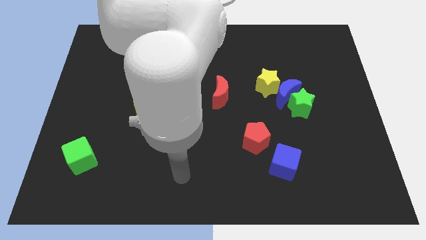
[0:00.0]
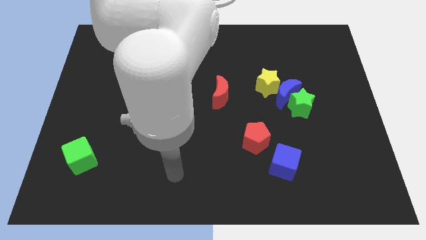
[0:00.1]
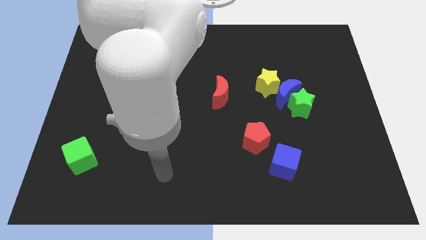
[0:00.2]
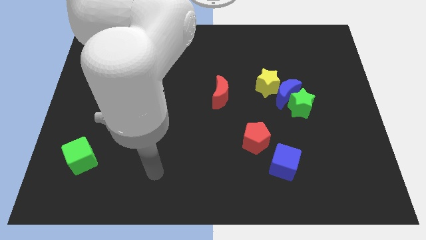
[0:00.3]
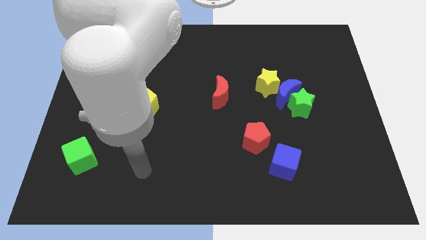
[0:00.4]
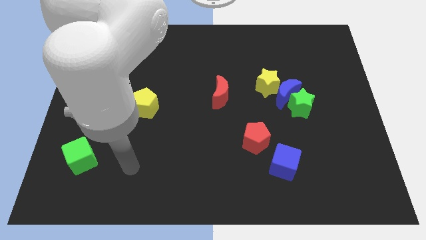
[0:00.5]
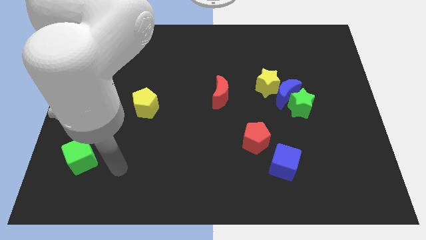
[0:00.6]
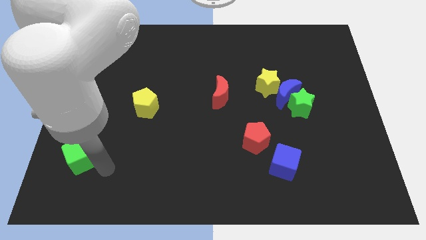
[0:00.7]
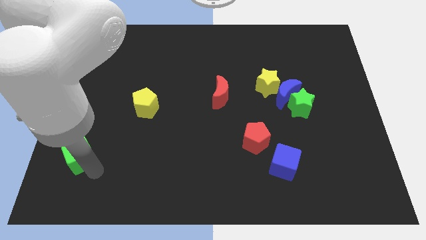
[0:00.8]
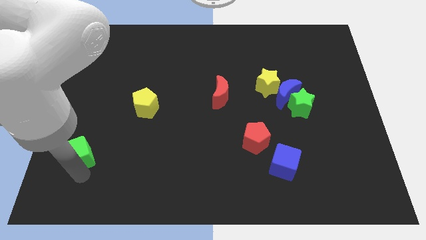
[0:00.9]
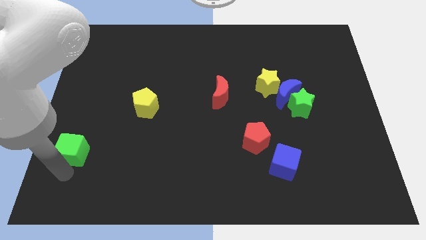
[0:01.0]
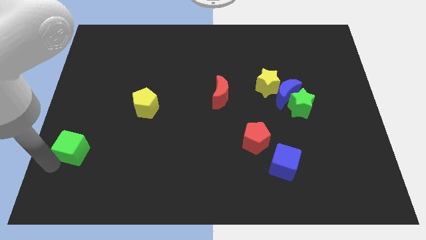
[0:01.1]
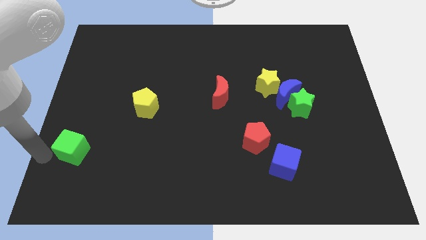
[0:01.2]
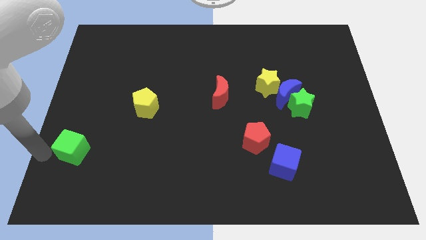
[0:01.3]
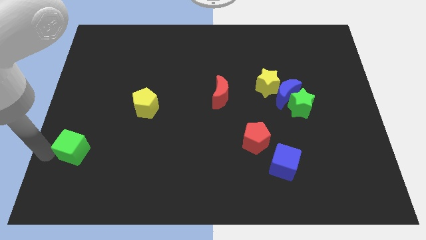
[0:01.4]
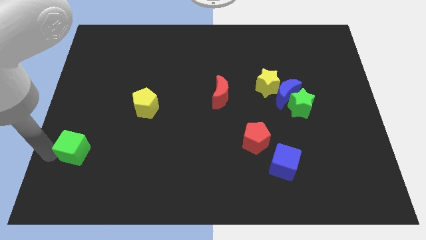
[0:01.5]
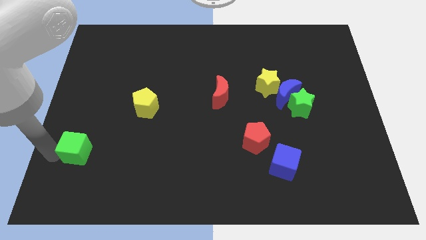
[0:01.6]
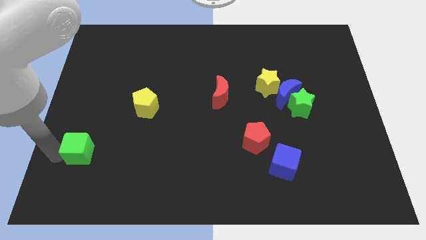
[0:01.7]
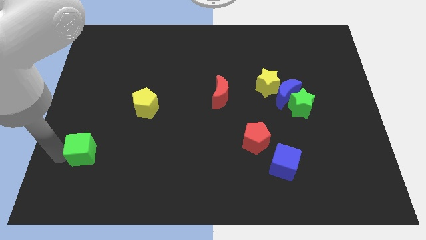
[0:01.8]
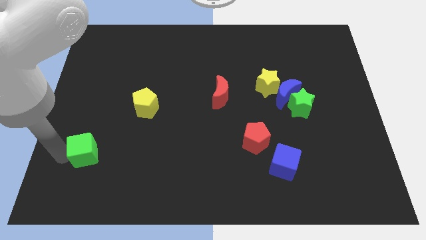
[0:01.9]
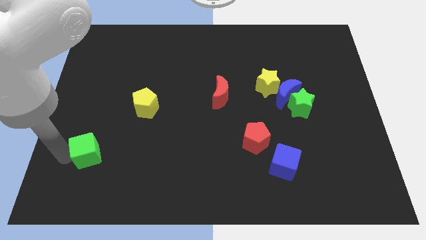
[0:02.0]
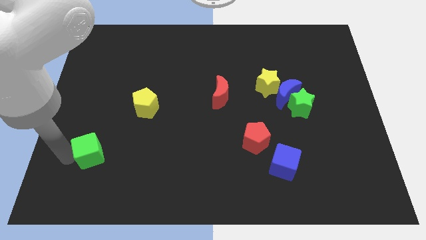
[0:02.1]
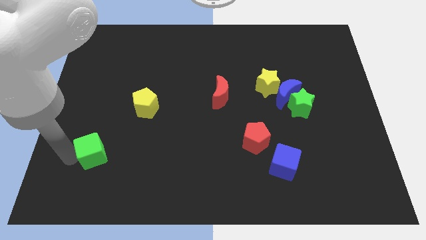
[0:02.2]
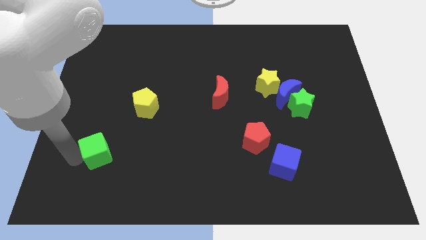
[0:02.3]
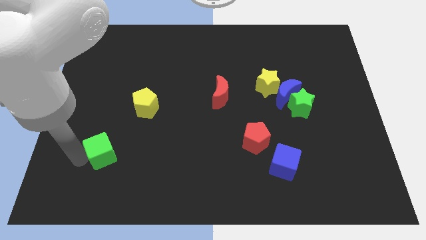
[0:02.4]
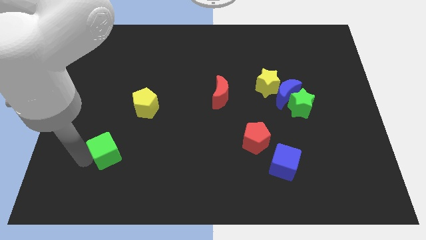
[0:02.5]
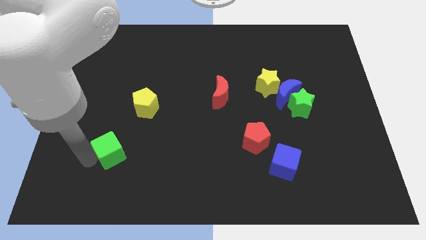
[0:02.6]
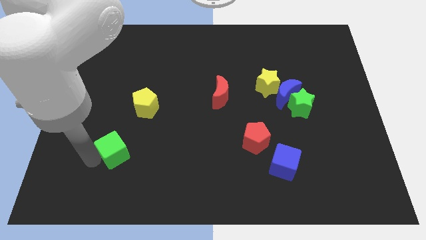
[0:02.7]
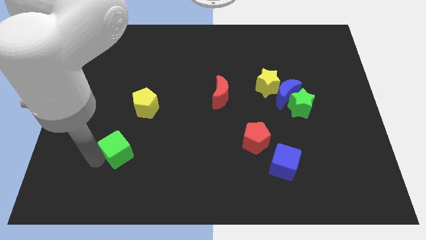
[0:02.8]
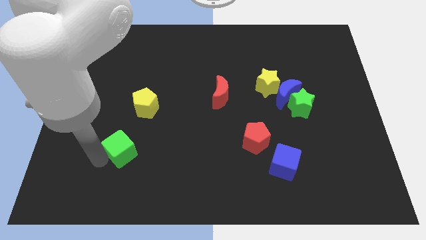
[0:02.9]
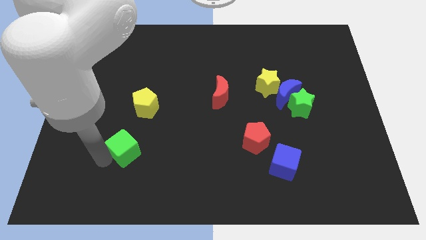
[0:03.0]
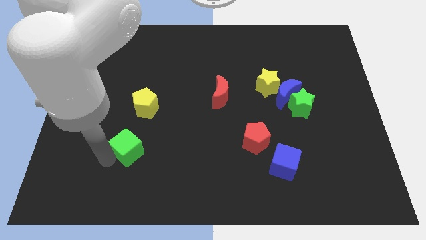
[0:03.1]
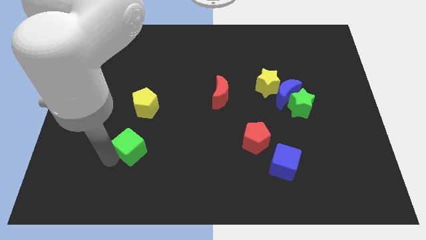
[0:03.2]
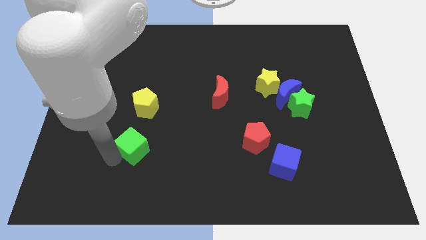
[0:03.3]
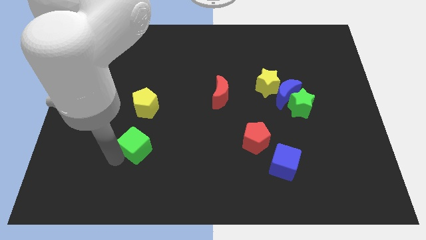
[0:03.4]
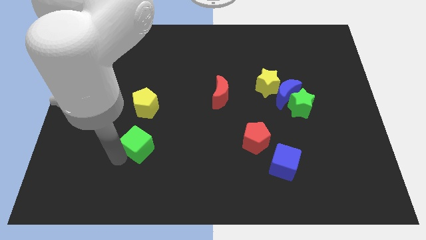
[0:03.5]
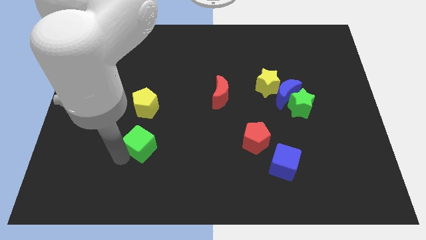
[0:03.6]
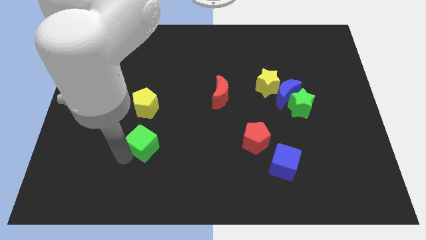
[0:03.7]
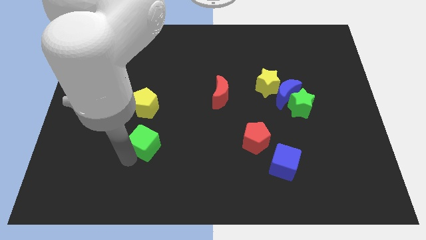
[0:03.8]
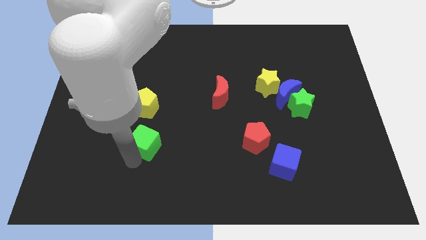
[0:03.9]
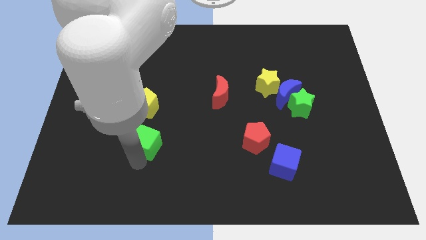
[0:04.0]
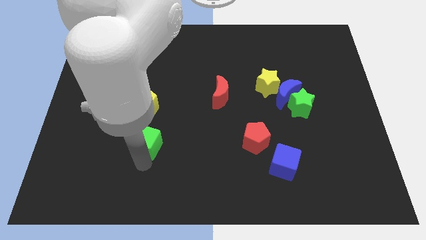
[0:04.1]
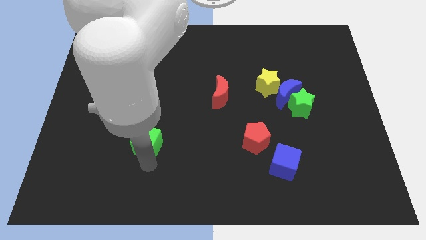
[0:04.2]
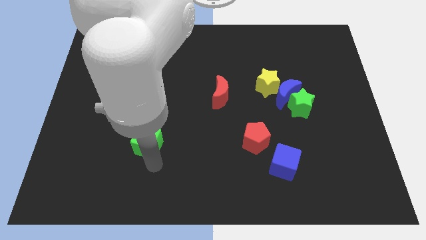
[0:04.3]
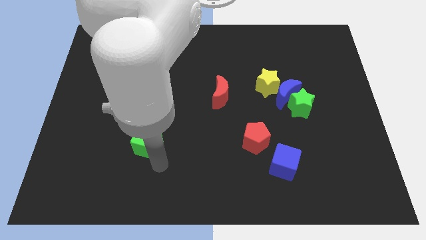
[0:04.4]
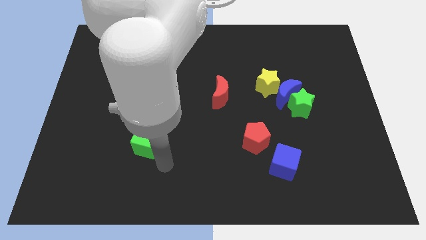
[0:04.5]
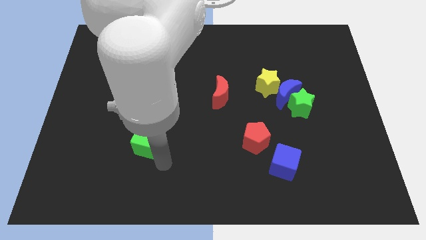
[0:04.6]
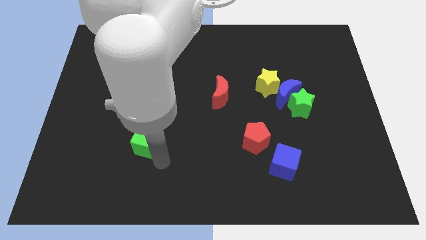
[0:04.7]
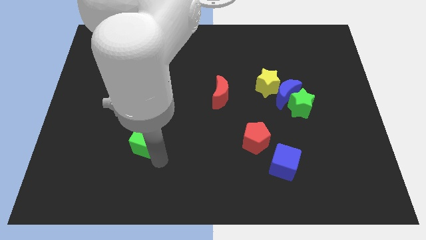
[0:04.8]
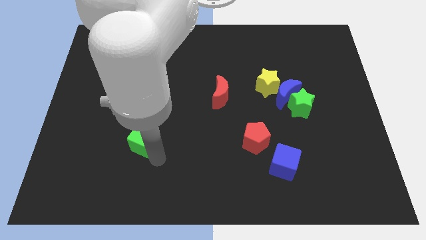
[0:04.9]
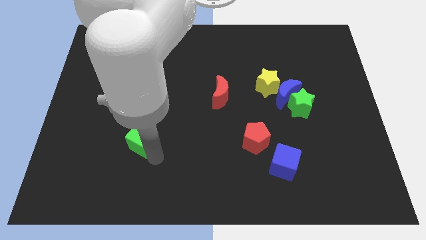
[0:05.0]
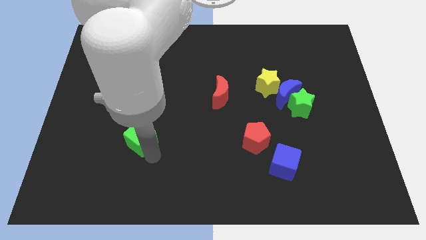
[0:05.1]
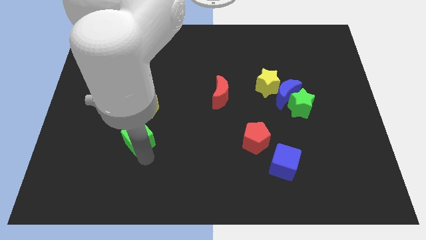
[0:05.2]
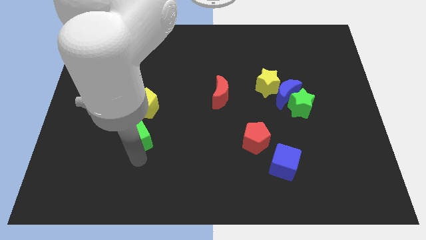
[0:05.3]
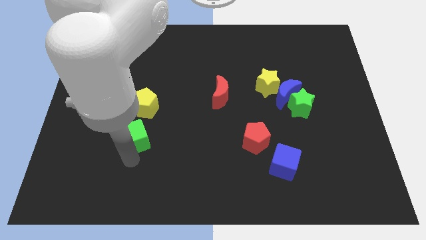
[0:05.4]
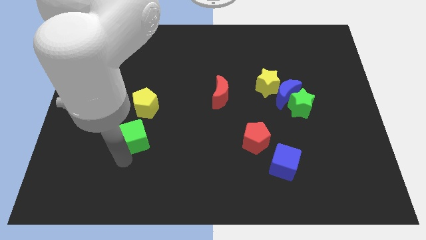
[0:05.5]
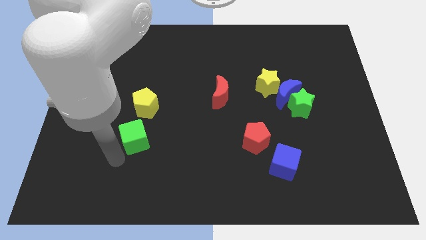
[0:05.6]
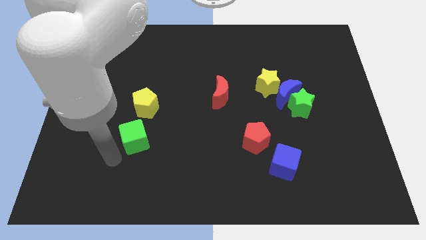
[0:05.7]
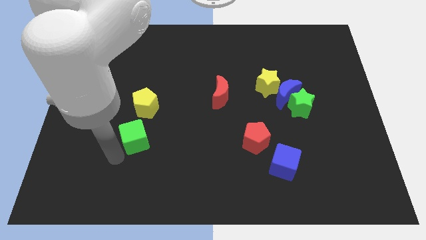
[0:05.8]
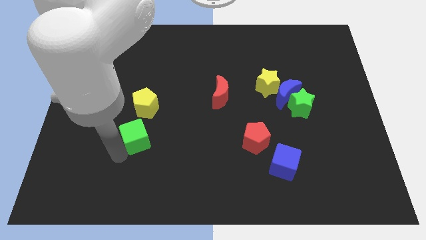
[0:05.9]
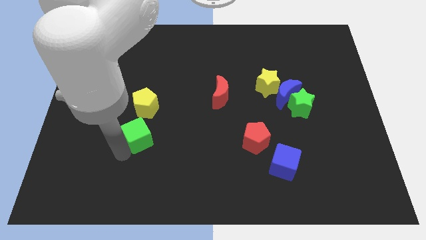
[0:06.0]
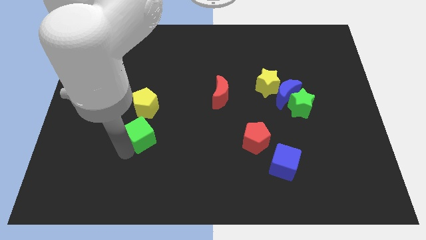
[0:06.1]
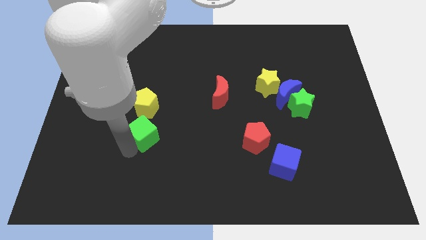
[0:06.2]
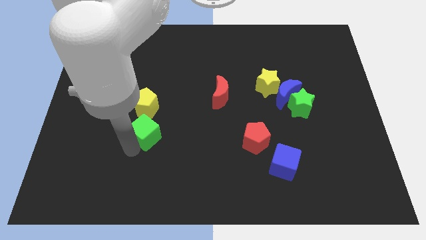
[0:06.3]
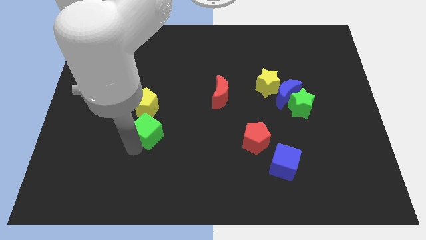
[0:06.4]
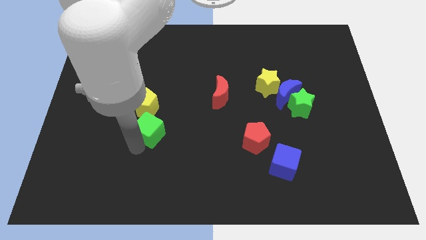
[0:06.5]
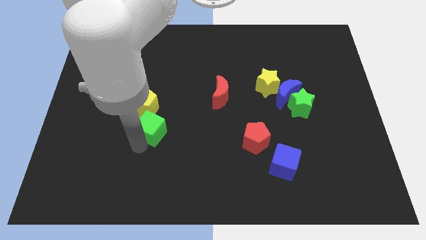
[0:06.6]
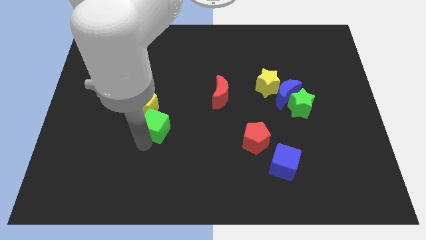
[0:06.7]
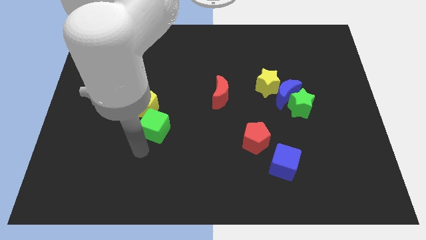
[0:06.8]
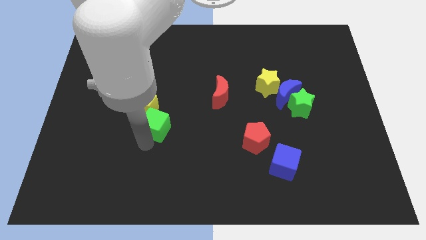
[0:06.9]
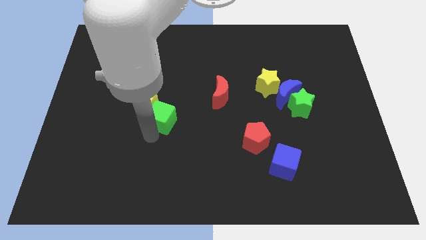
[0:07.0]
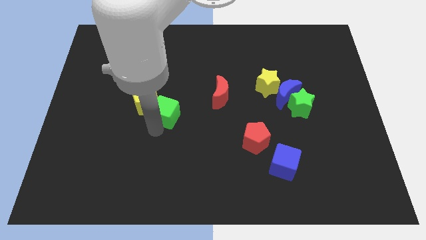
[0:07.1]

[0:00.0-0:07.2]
push the green cube up and right diagonally

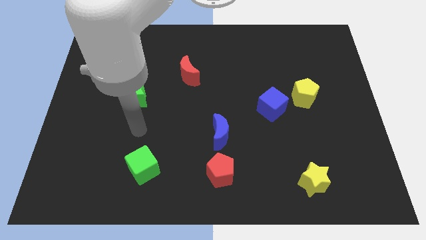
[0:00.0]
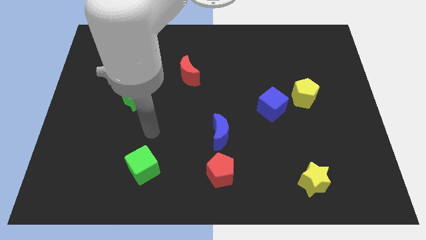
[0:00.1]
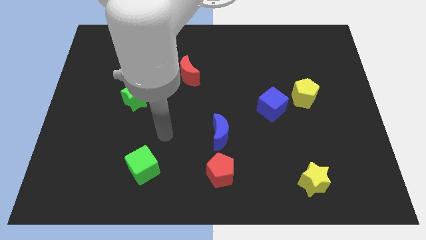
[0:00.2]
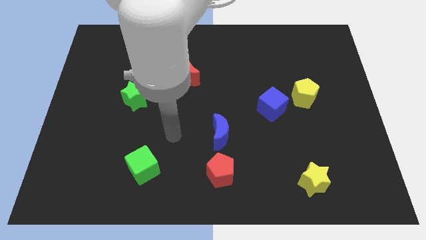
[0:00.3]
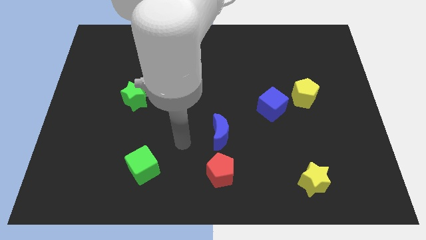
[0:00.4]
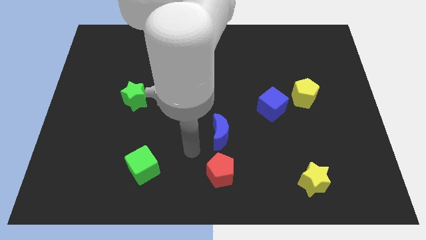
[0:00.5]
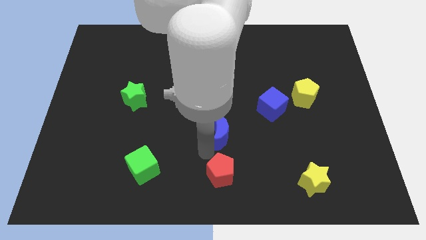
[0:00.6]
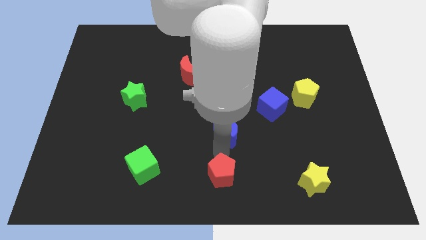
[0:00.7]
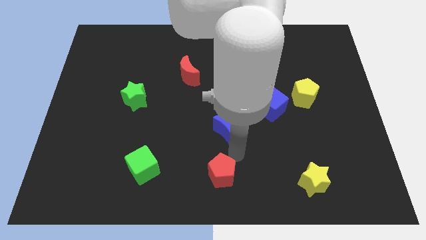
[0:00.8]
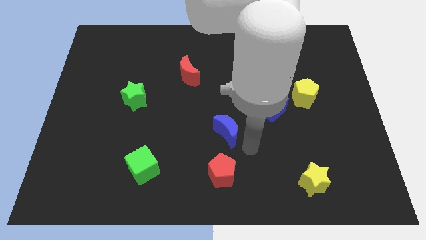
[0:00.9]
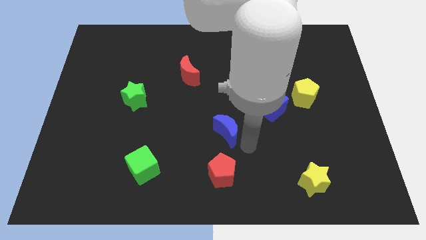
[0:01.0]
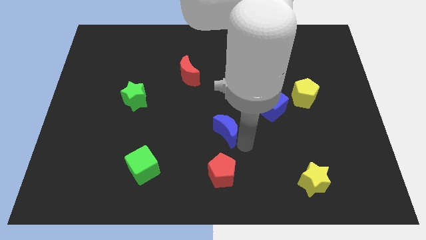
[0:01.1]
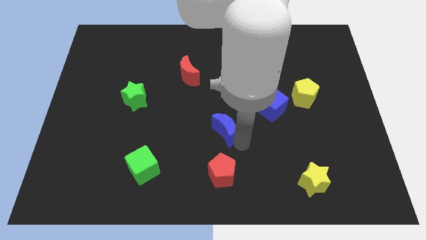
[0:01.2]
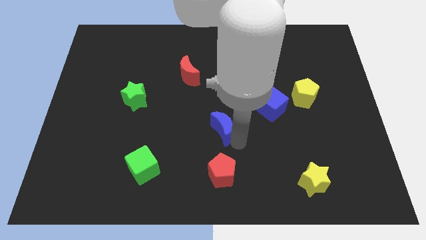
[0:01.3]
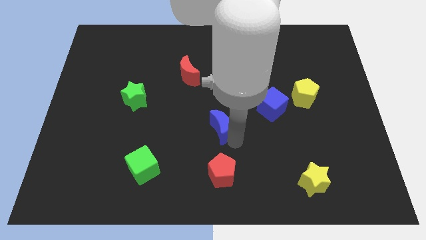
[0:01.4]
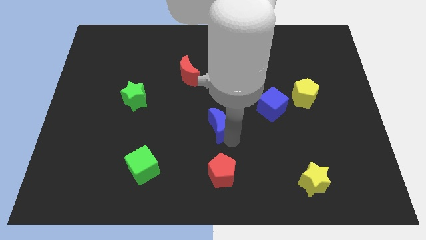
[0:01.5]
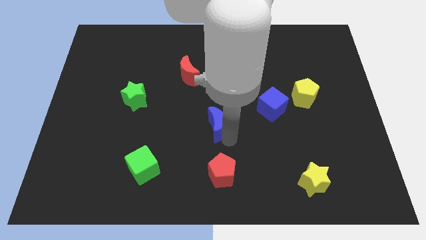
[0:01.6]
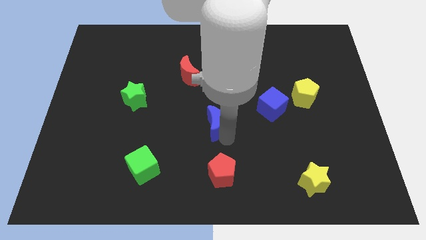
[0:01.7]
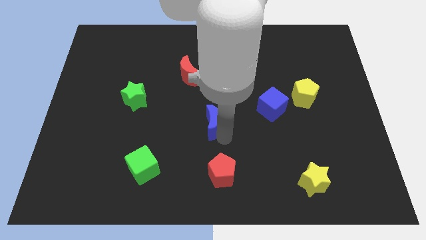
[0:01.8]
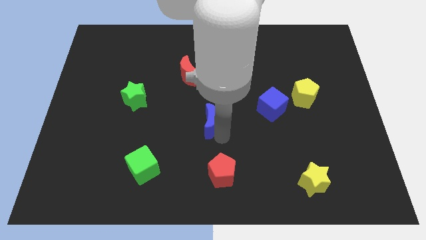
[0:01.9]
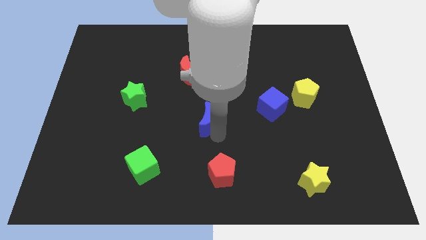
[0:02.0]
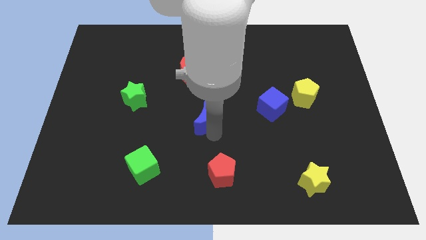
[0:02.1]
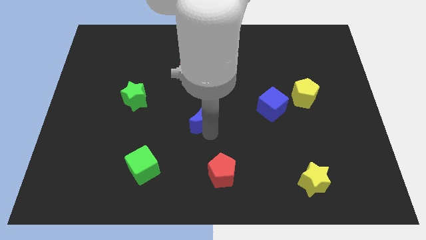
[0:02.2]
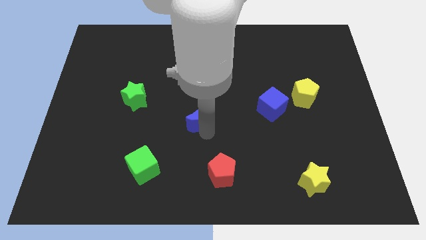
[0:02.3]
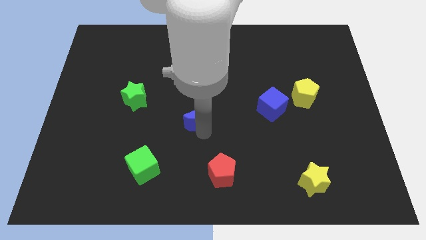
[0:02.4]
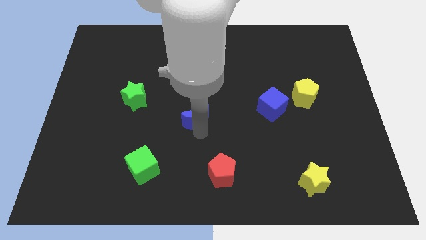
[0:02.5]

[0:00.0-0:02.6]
slide the blue moon up and to the left somewhat
